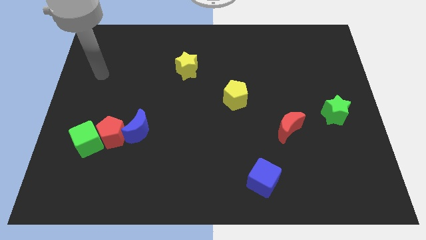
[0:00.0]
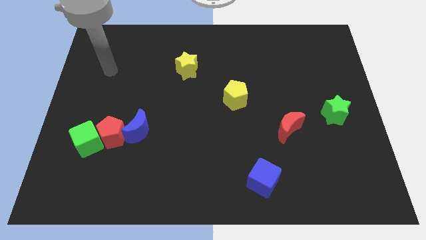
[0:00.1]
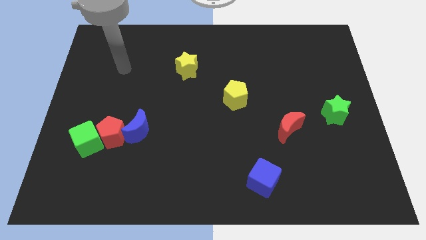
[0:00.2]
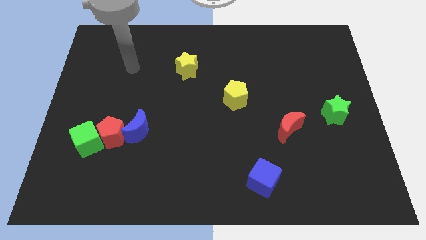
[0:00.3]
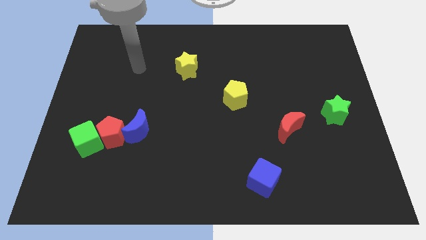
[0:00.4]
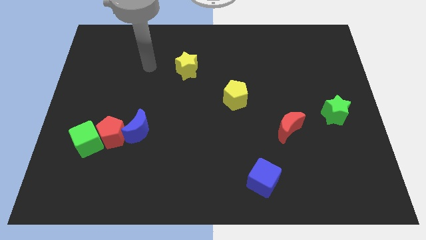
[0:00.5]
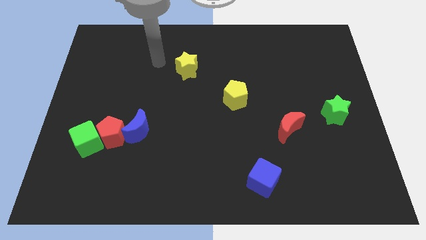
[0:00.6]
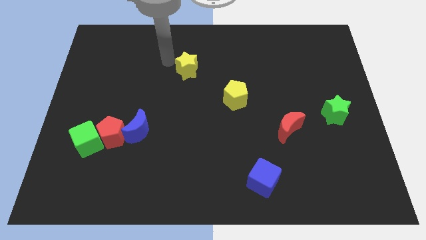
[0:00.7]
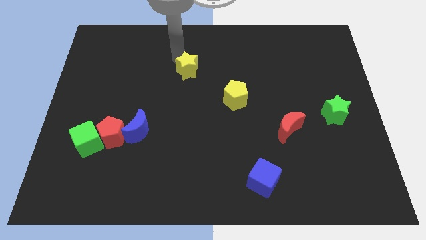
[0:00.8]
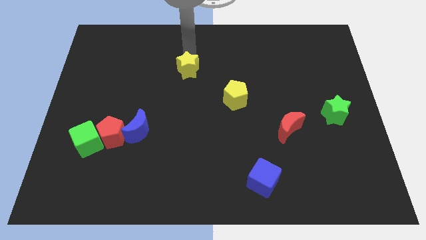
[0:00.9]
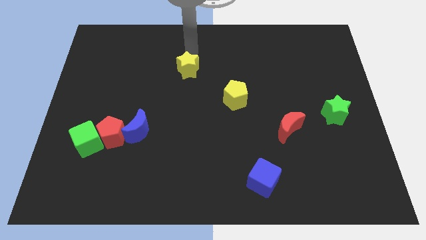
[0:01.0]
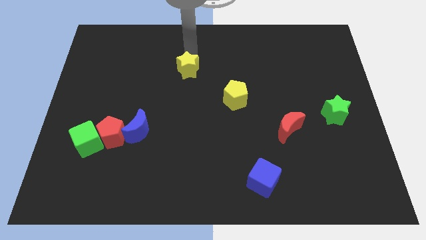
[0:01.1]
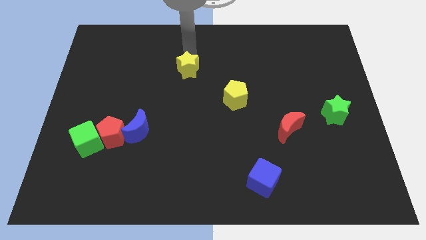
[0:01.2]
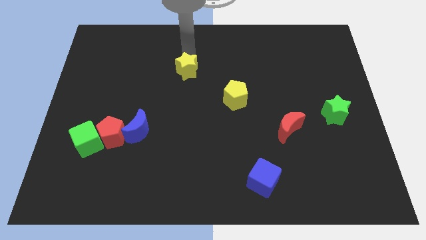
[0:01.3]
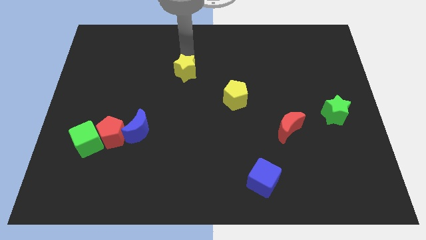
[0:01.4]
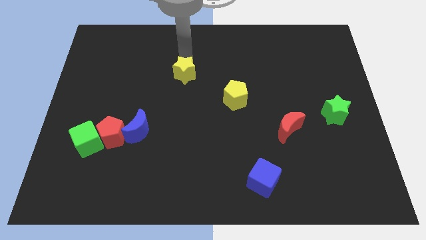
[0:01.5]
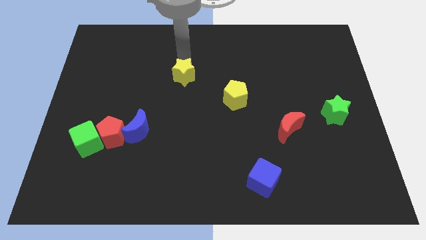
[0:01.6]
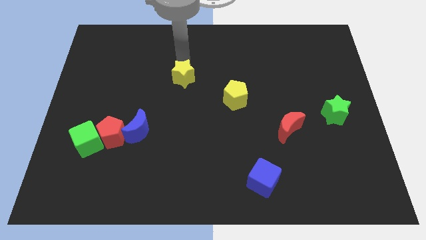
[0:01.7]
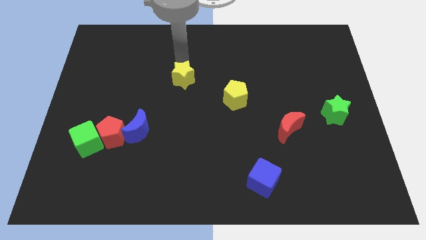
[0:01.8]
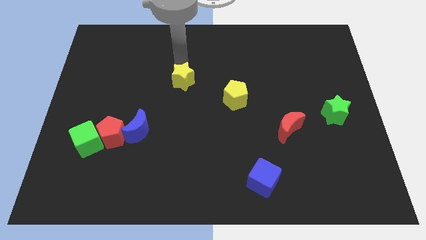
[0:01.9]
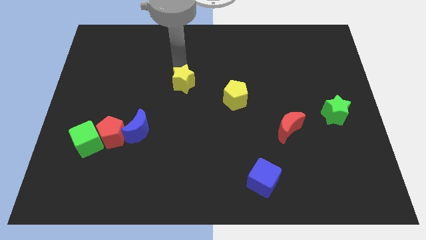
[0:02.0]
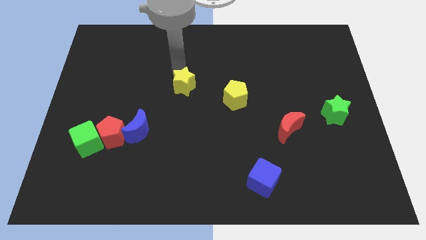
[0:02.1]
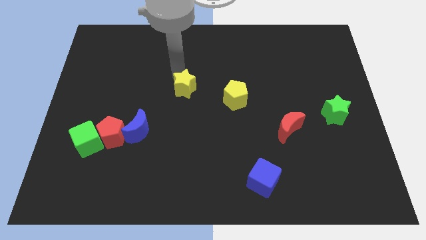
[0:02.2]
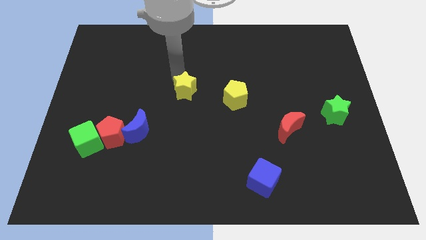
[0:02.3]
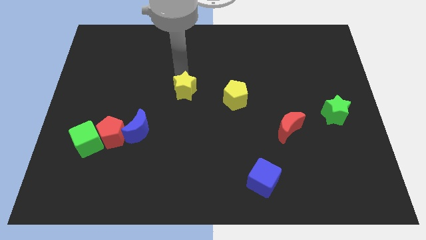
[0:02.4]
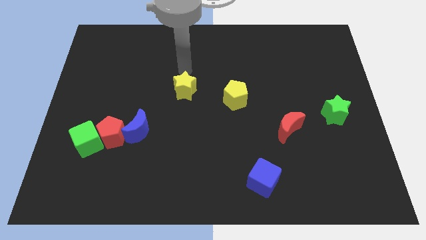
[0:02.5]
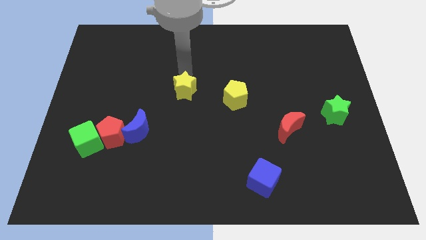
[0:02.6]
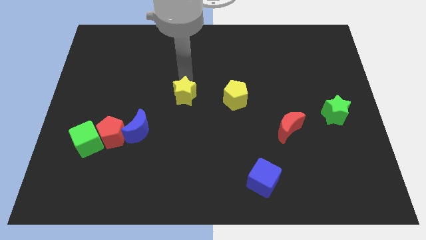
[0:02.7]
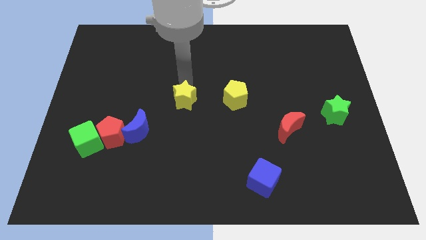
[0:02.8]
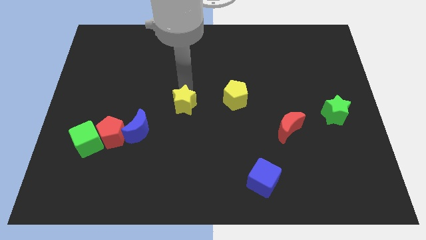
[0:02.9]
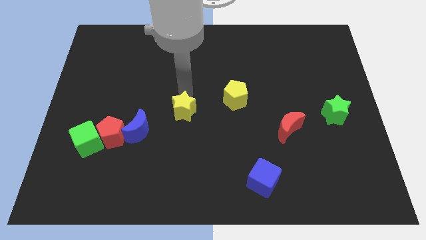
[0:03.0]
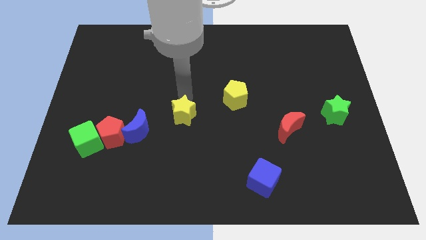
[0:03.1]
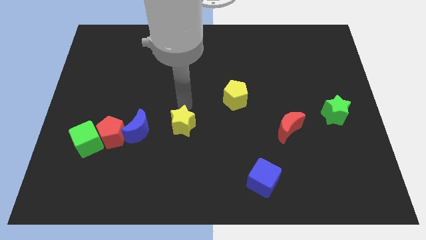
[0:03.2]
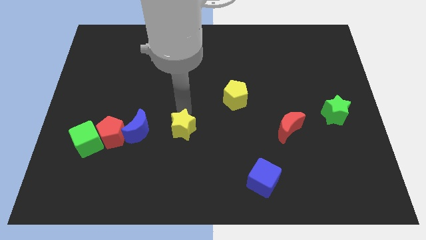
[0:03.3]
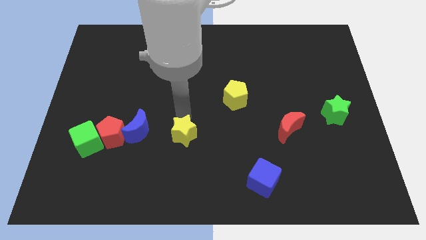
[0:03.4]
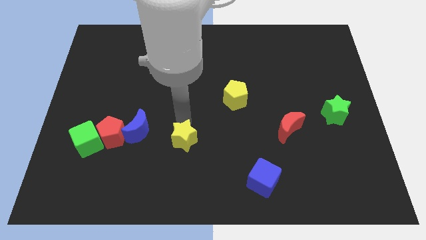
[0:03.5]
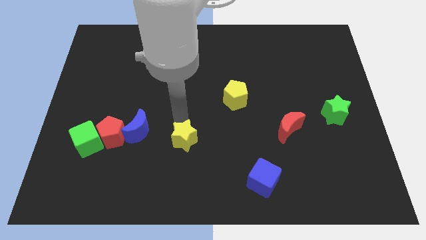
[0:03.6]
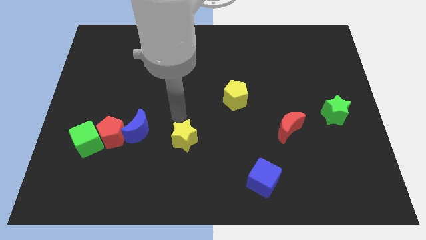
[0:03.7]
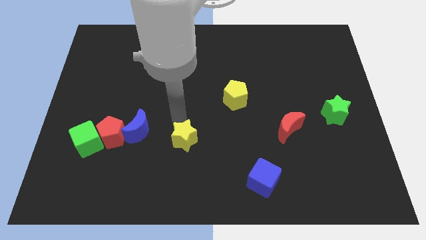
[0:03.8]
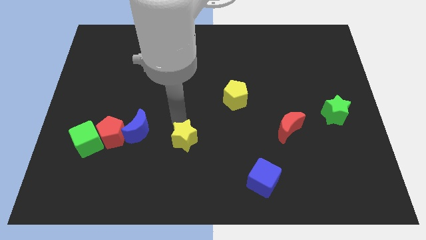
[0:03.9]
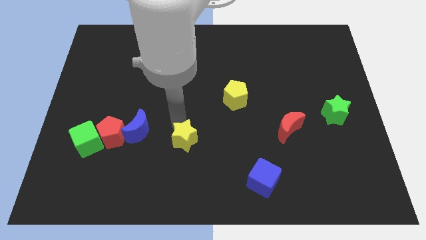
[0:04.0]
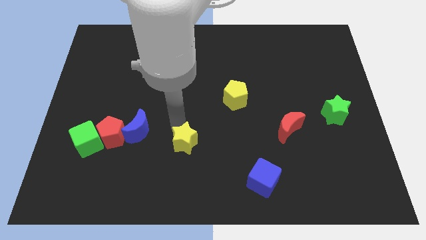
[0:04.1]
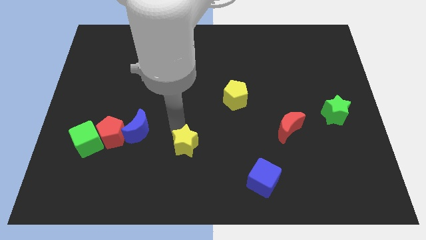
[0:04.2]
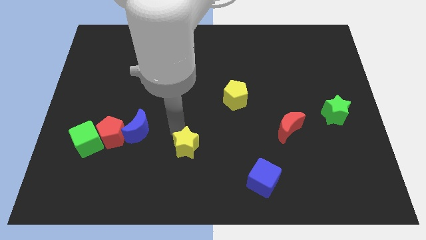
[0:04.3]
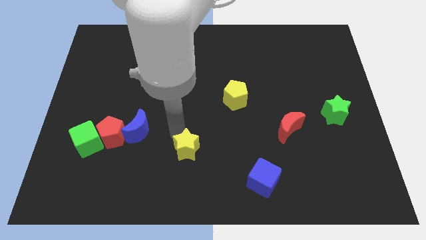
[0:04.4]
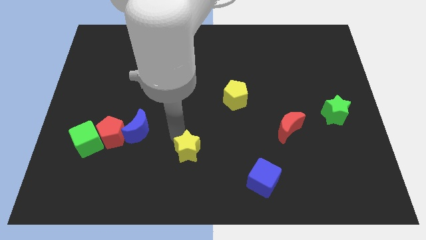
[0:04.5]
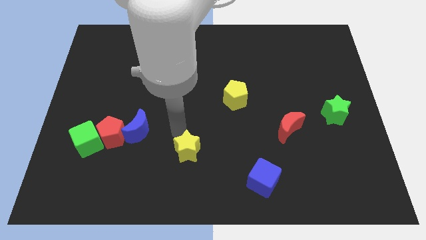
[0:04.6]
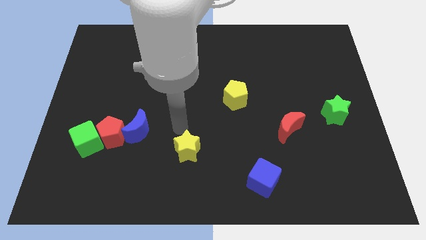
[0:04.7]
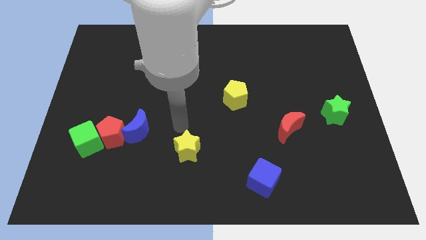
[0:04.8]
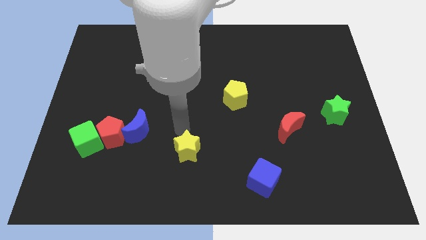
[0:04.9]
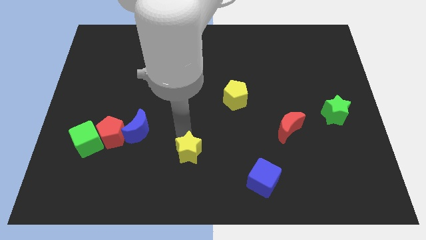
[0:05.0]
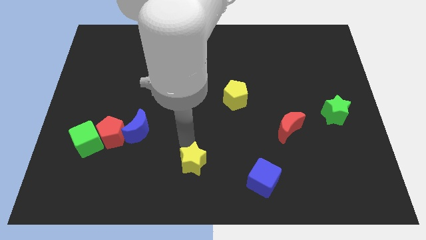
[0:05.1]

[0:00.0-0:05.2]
move the yellow star to the bottom side
